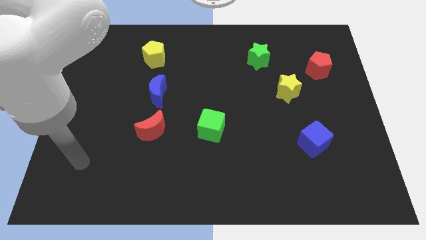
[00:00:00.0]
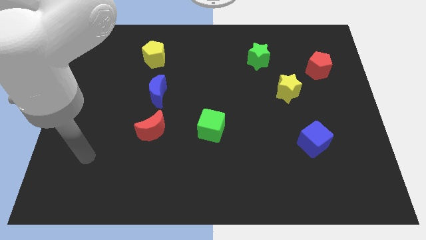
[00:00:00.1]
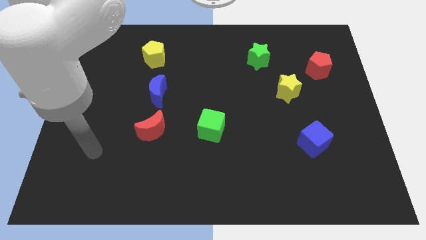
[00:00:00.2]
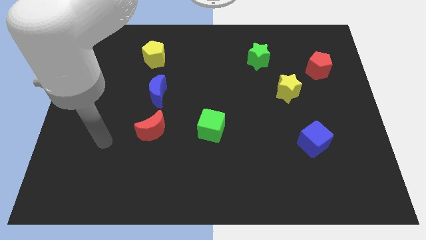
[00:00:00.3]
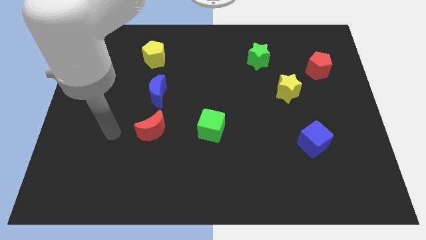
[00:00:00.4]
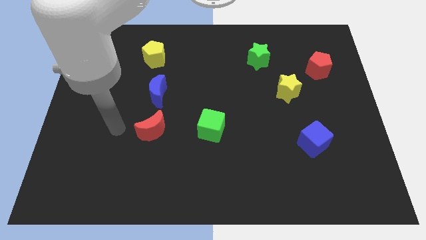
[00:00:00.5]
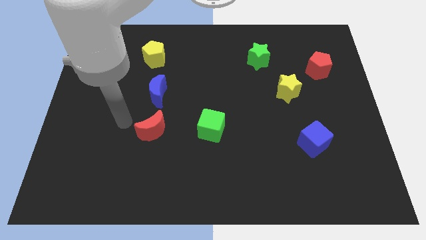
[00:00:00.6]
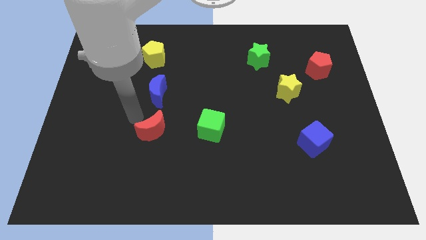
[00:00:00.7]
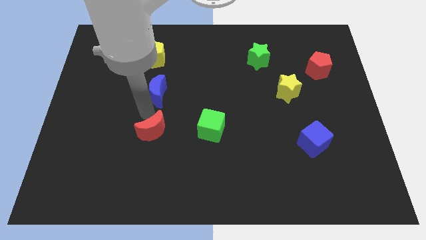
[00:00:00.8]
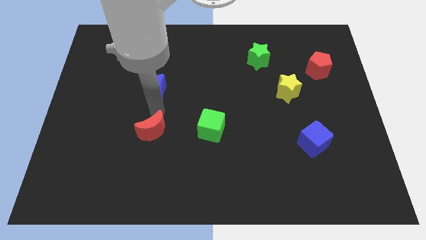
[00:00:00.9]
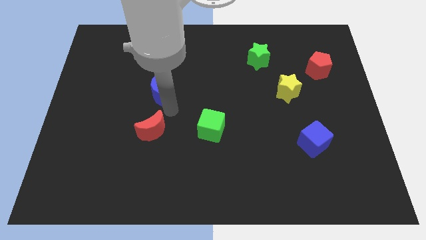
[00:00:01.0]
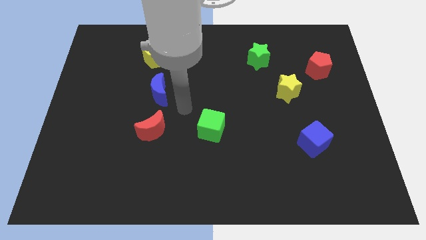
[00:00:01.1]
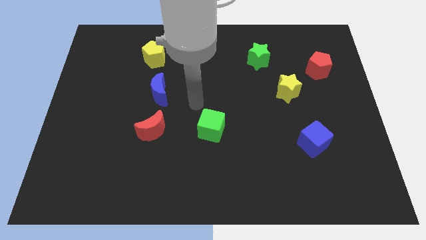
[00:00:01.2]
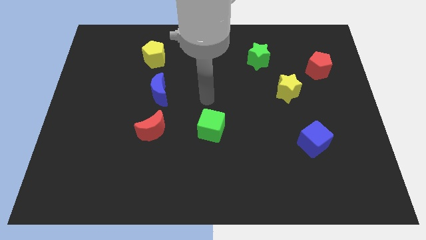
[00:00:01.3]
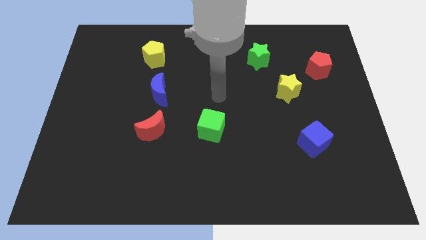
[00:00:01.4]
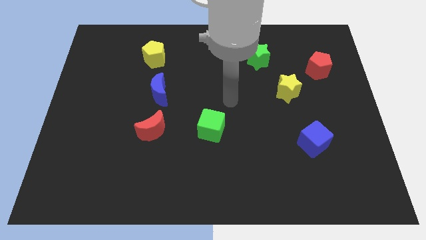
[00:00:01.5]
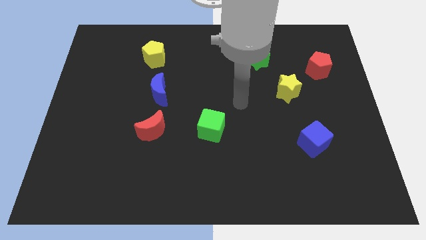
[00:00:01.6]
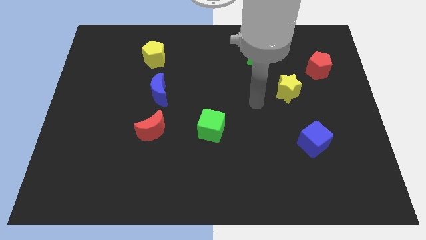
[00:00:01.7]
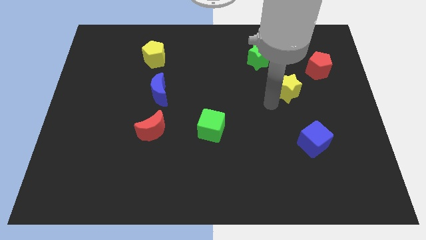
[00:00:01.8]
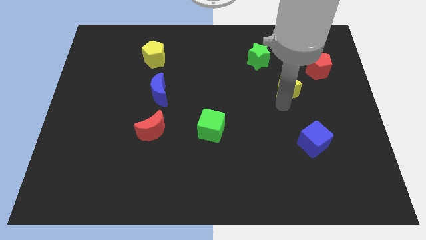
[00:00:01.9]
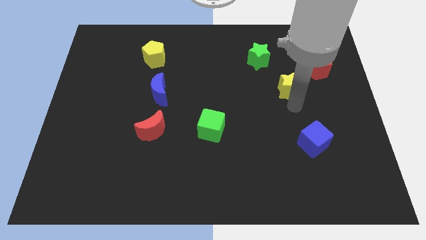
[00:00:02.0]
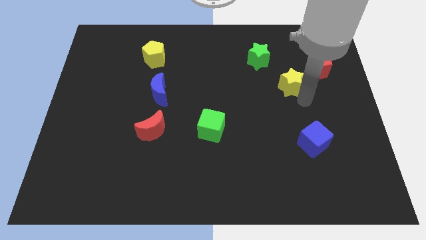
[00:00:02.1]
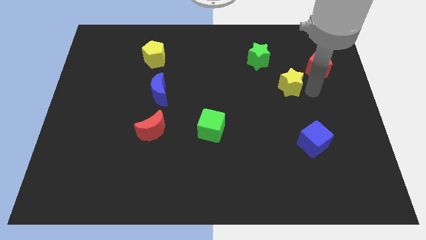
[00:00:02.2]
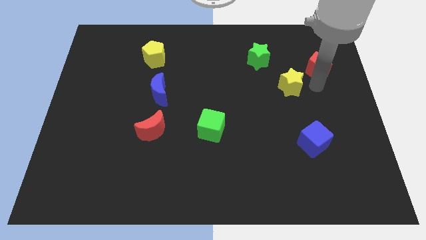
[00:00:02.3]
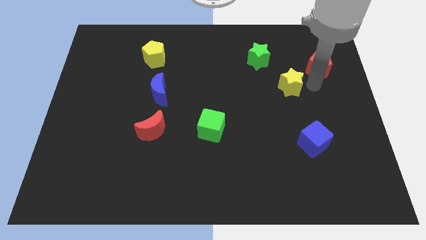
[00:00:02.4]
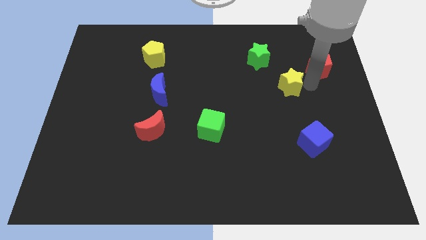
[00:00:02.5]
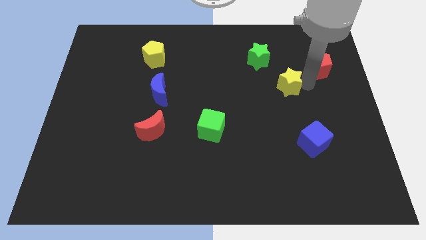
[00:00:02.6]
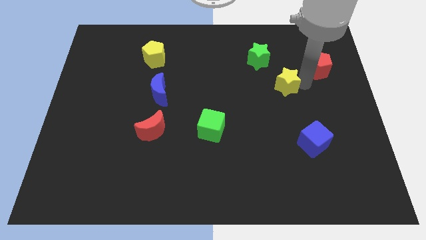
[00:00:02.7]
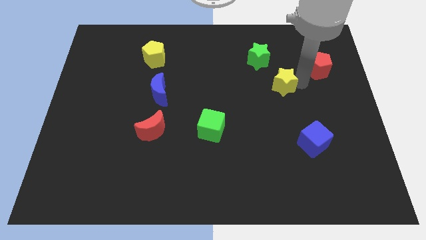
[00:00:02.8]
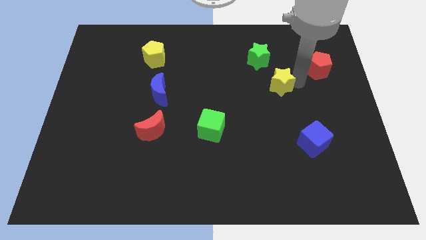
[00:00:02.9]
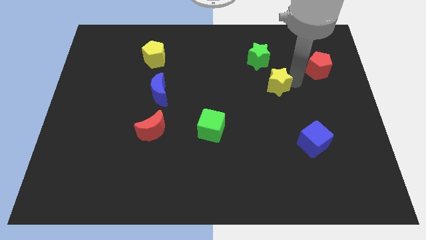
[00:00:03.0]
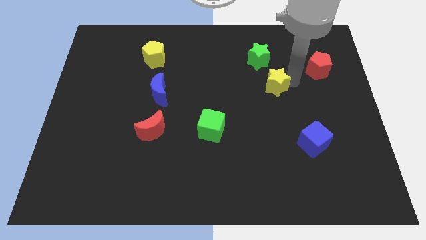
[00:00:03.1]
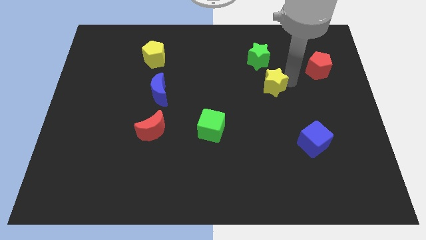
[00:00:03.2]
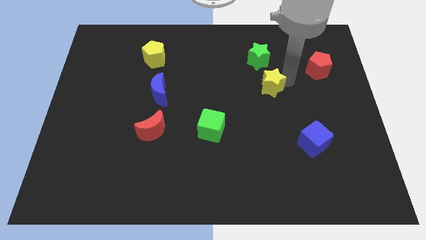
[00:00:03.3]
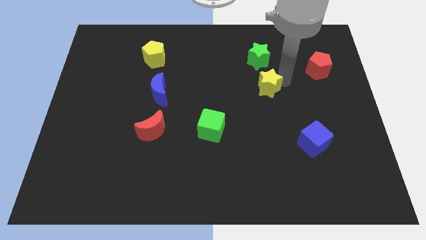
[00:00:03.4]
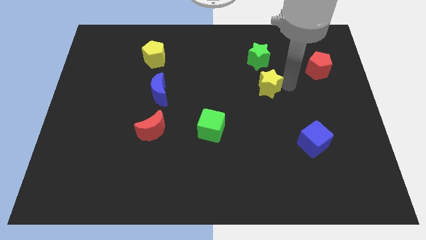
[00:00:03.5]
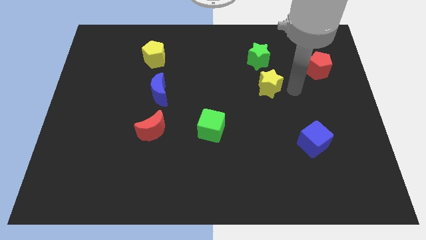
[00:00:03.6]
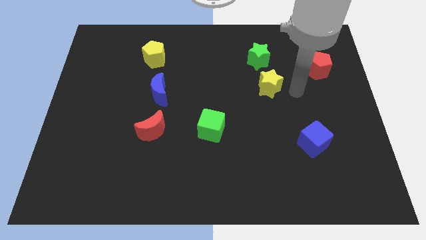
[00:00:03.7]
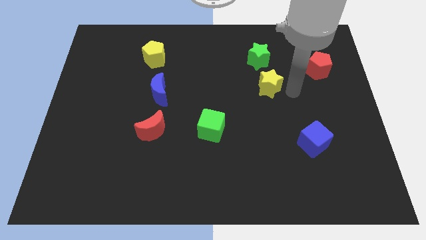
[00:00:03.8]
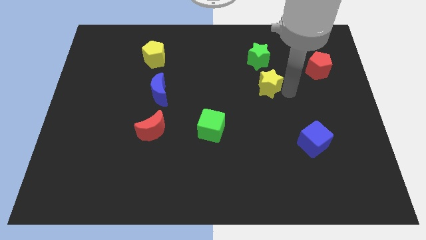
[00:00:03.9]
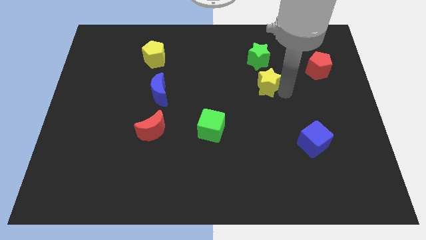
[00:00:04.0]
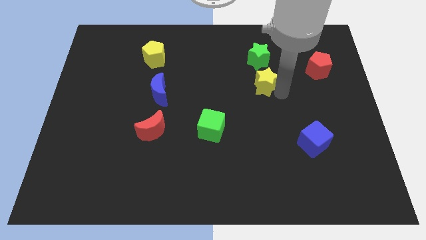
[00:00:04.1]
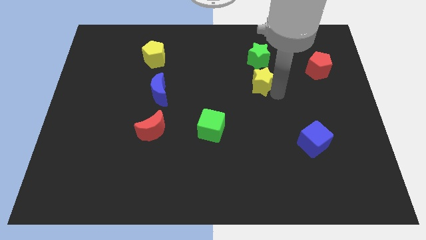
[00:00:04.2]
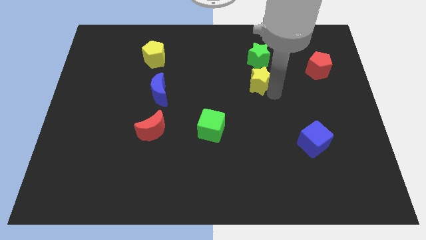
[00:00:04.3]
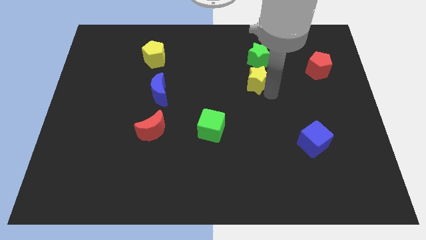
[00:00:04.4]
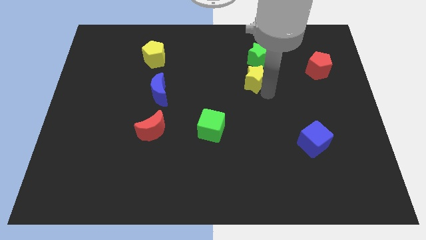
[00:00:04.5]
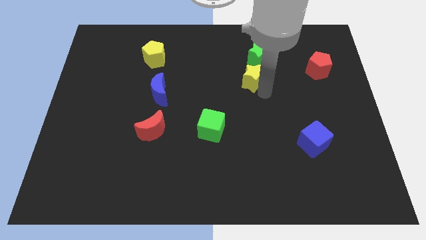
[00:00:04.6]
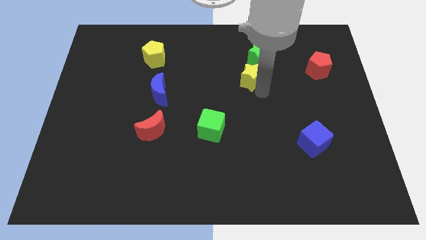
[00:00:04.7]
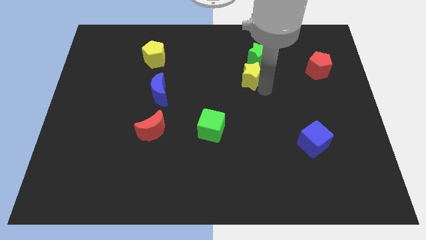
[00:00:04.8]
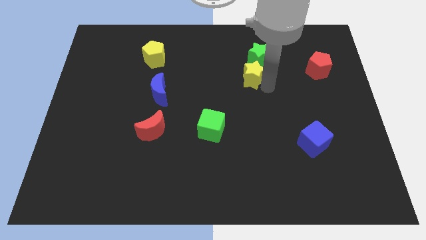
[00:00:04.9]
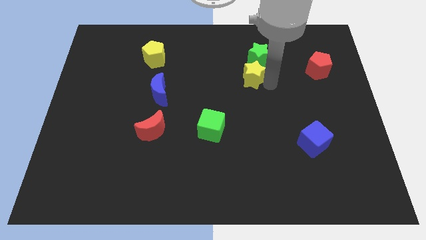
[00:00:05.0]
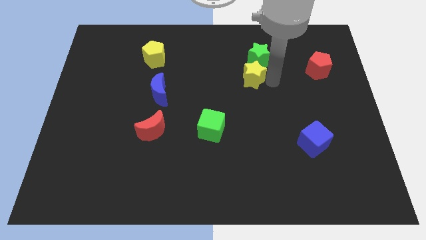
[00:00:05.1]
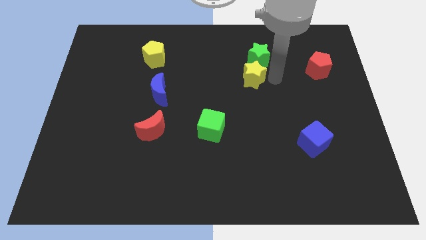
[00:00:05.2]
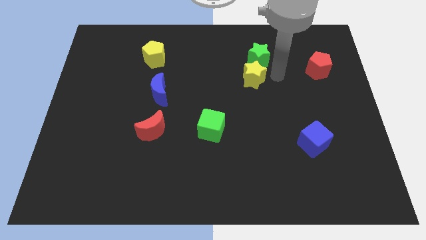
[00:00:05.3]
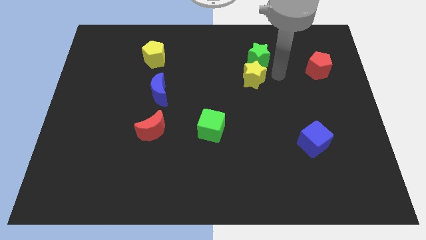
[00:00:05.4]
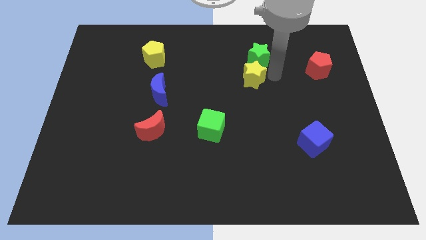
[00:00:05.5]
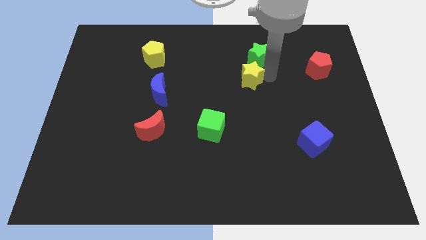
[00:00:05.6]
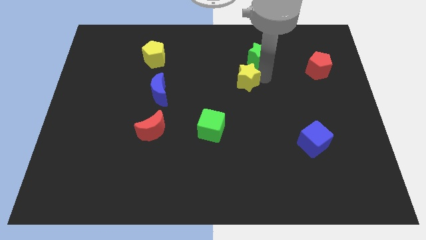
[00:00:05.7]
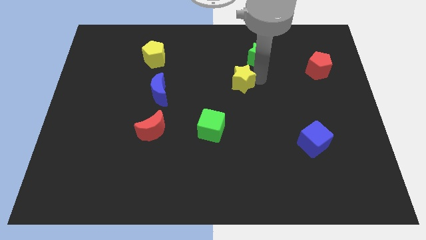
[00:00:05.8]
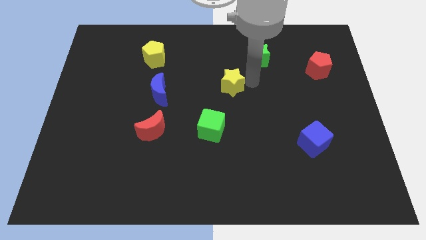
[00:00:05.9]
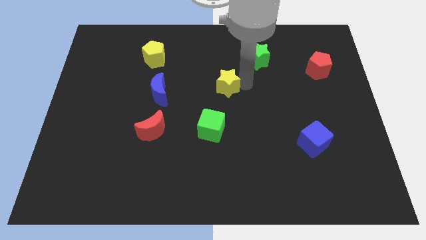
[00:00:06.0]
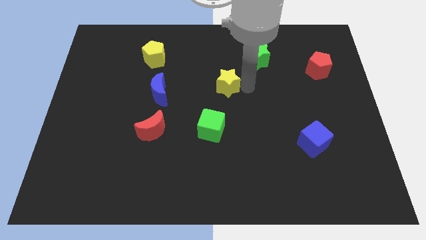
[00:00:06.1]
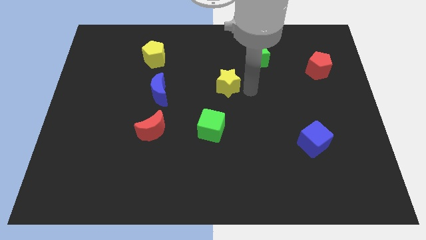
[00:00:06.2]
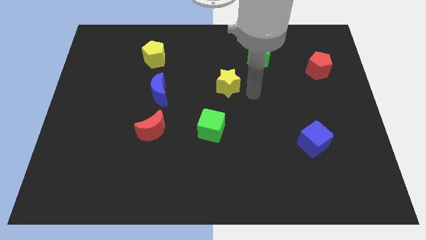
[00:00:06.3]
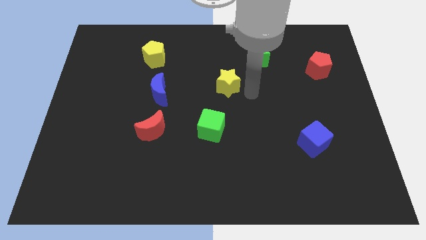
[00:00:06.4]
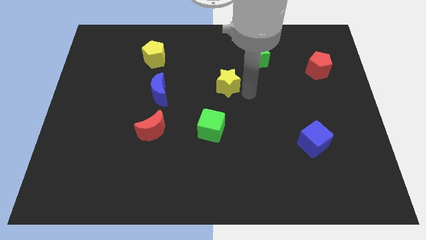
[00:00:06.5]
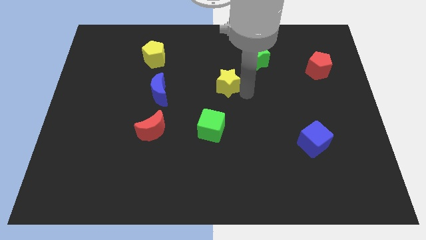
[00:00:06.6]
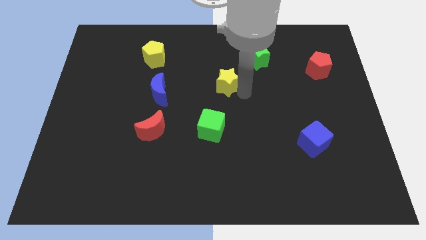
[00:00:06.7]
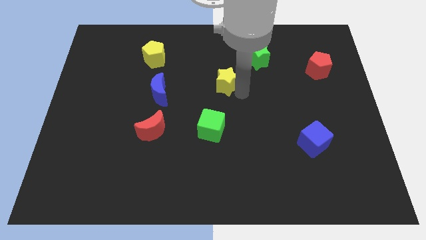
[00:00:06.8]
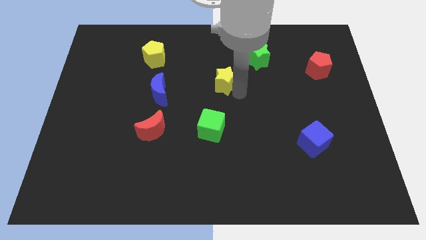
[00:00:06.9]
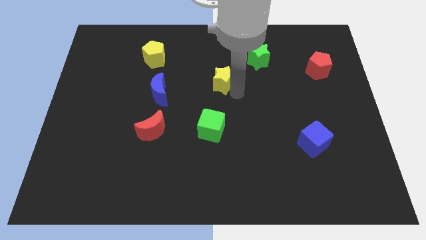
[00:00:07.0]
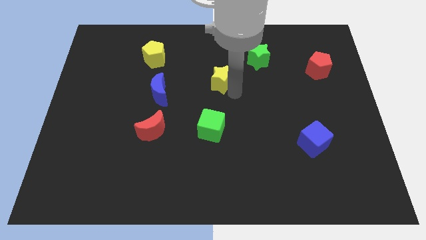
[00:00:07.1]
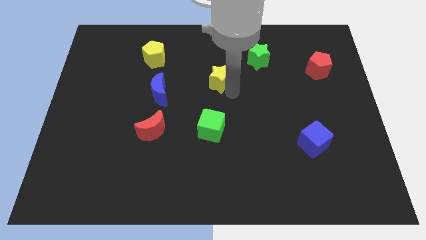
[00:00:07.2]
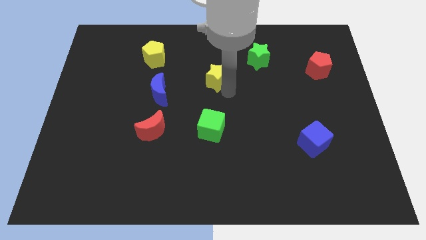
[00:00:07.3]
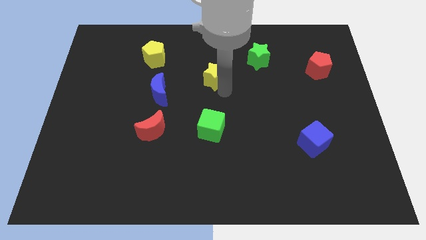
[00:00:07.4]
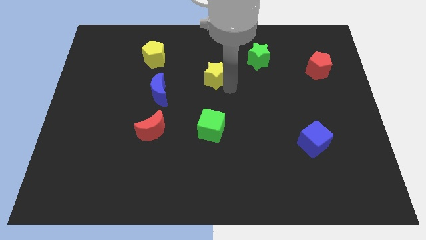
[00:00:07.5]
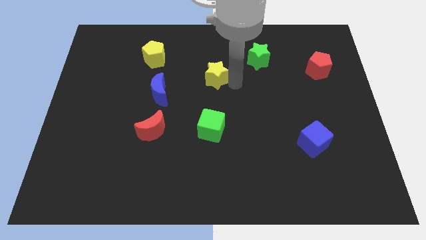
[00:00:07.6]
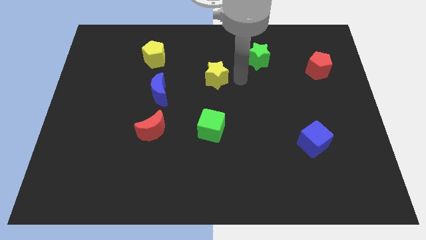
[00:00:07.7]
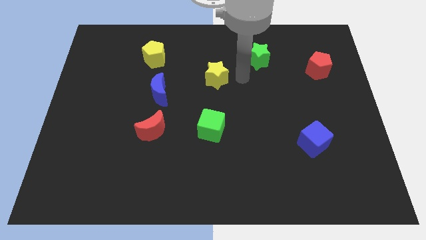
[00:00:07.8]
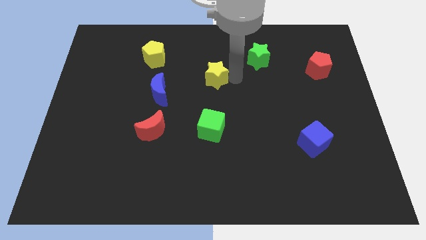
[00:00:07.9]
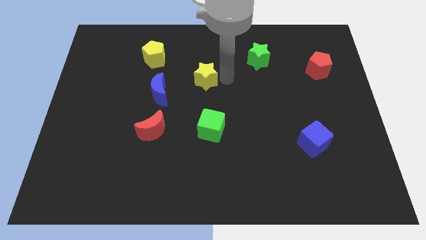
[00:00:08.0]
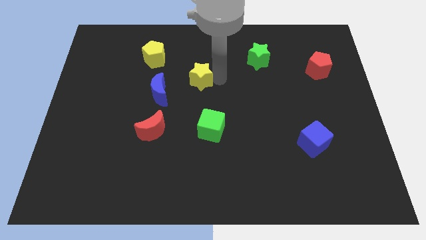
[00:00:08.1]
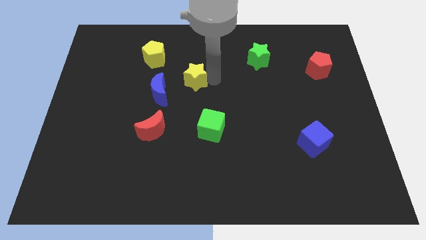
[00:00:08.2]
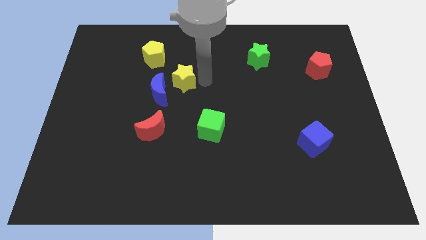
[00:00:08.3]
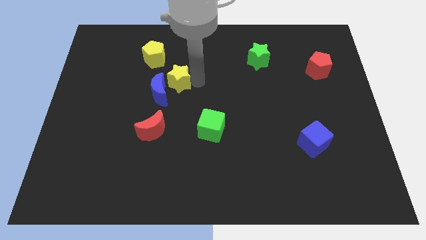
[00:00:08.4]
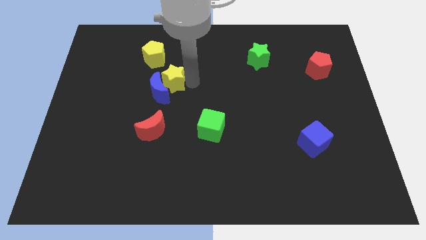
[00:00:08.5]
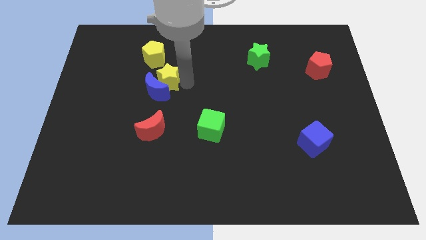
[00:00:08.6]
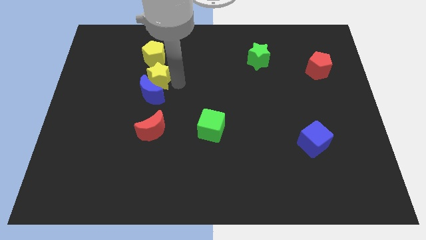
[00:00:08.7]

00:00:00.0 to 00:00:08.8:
put the yellow star diagonally up and to the left of the blue moon
